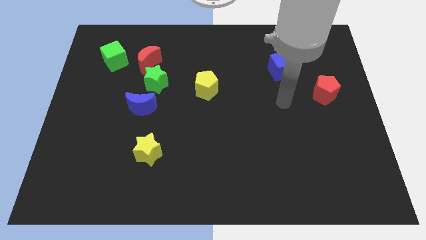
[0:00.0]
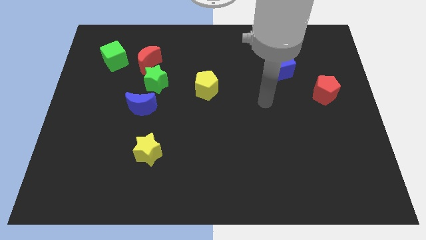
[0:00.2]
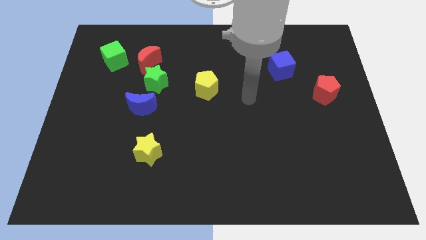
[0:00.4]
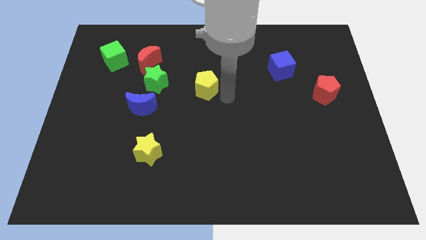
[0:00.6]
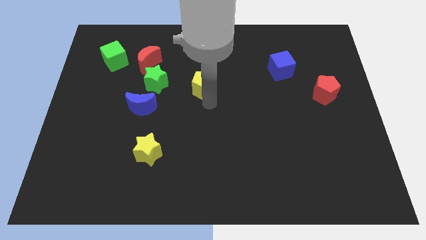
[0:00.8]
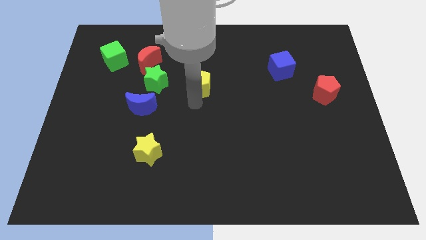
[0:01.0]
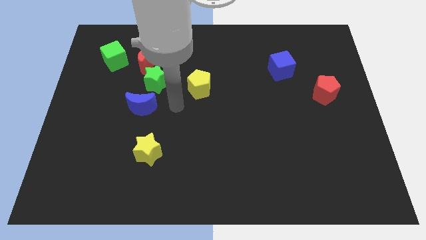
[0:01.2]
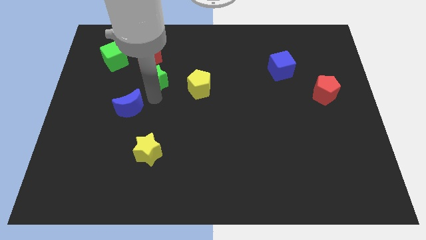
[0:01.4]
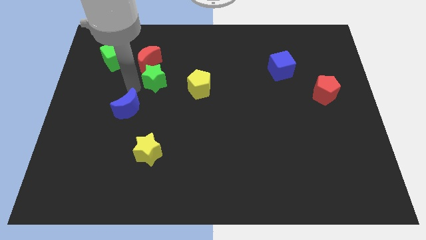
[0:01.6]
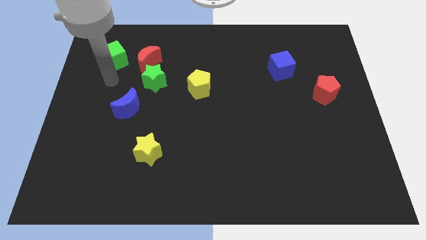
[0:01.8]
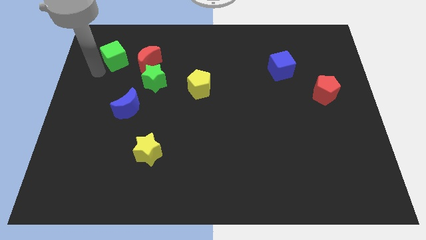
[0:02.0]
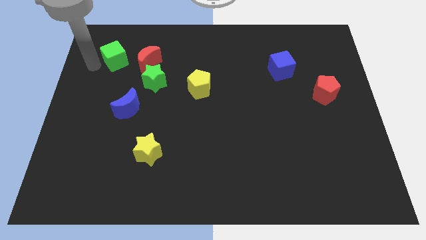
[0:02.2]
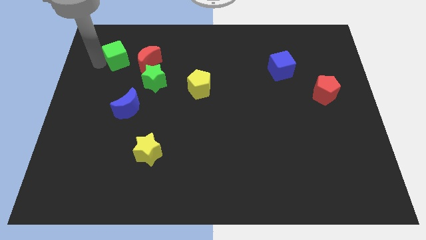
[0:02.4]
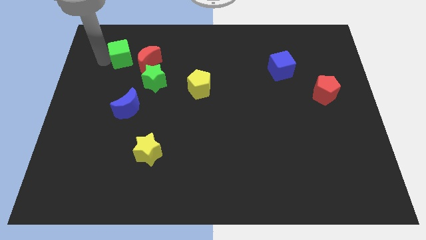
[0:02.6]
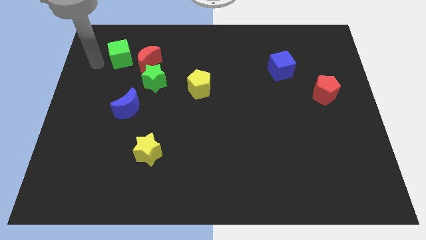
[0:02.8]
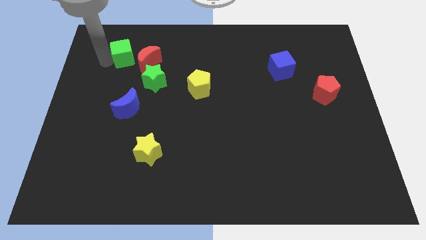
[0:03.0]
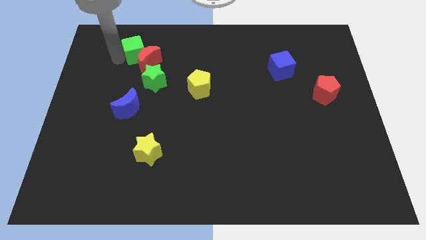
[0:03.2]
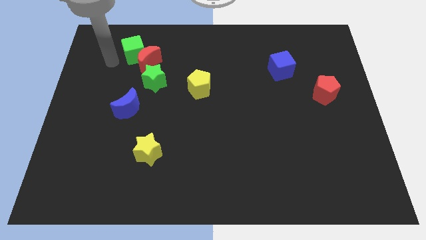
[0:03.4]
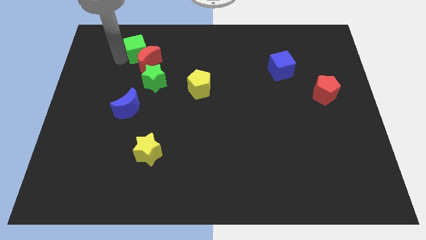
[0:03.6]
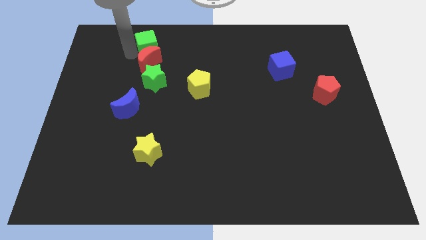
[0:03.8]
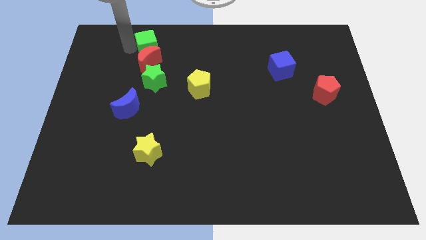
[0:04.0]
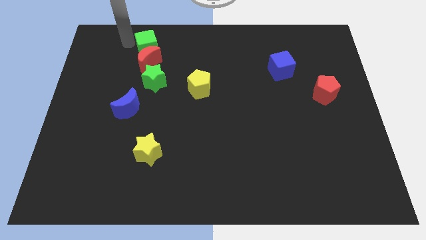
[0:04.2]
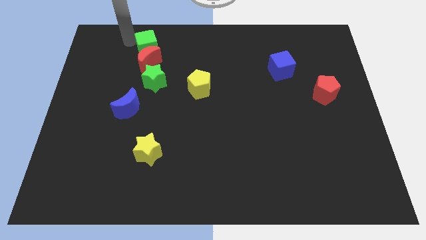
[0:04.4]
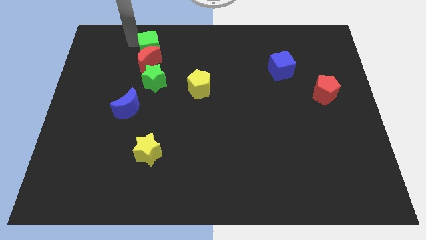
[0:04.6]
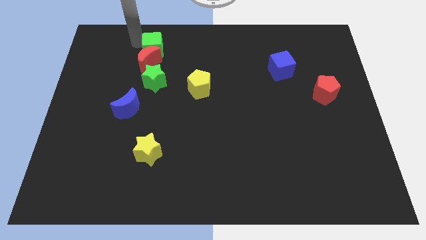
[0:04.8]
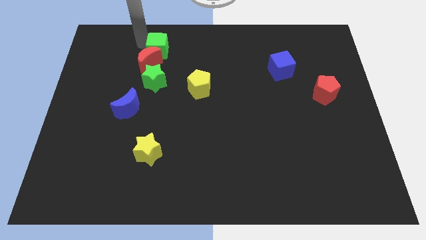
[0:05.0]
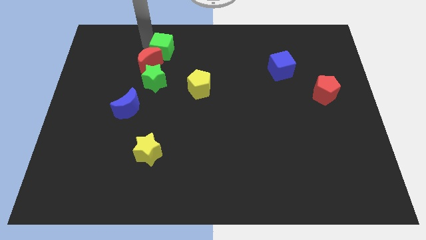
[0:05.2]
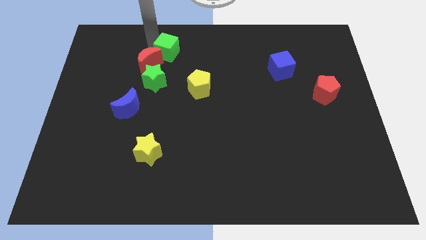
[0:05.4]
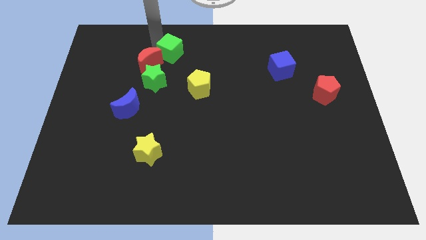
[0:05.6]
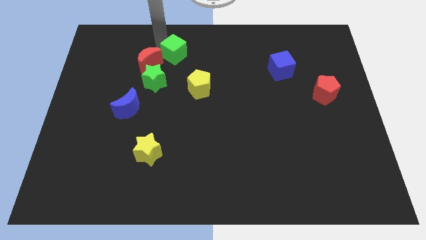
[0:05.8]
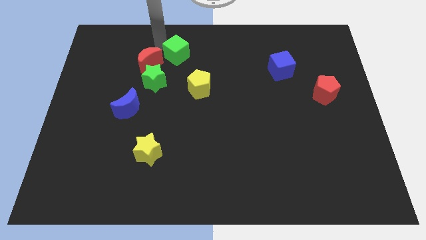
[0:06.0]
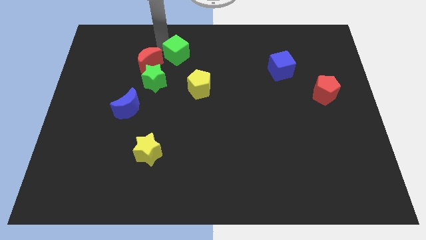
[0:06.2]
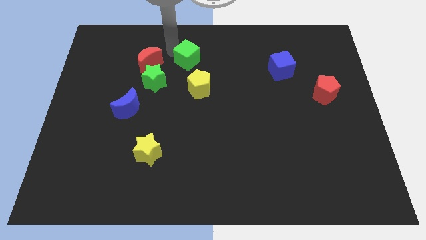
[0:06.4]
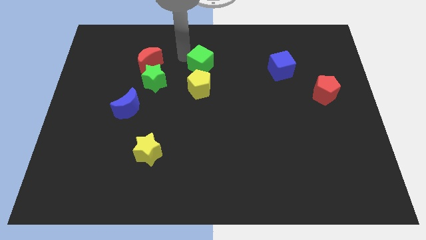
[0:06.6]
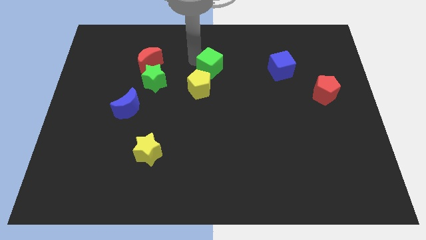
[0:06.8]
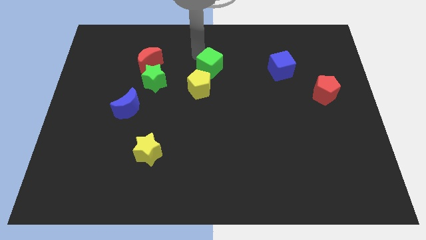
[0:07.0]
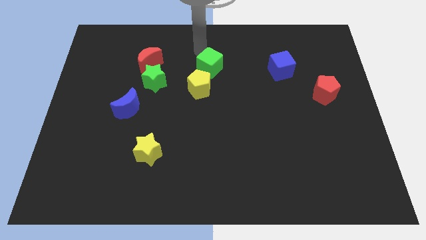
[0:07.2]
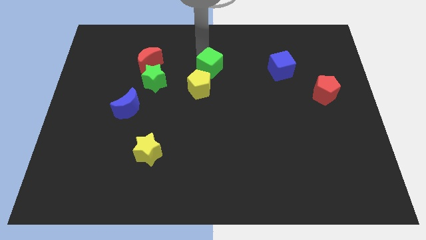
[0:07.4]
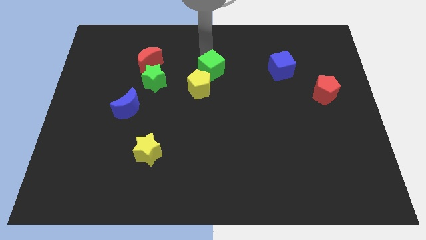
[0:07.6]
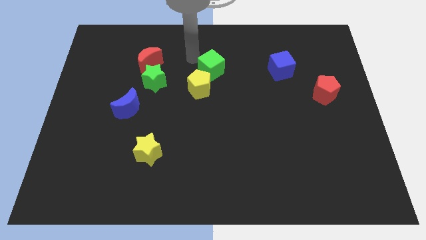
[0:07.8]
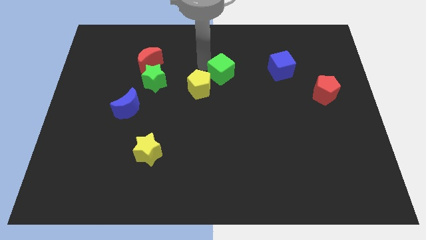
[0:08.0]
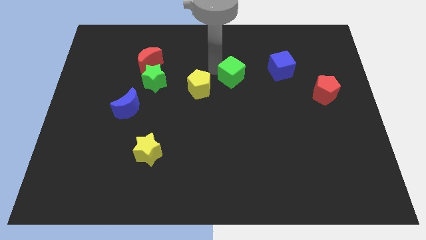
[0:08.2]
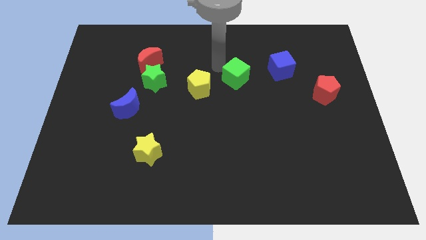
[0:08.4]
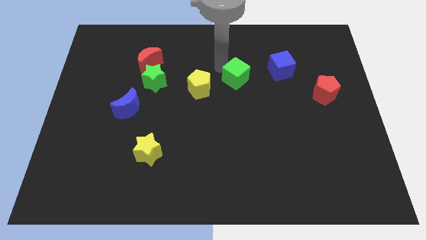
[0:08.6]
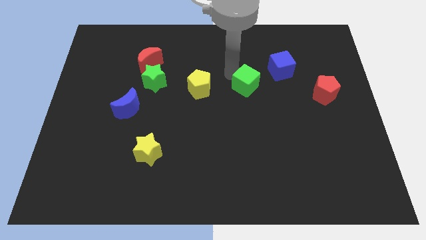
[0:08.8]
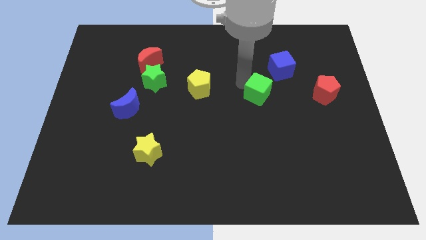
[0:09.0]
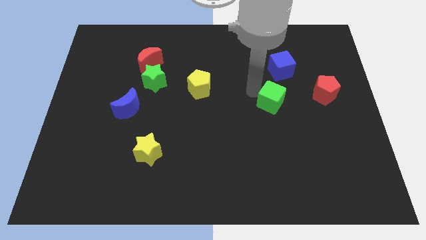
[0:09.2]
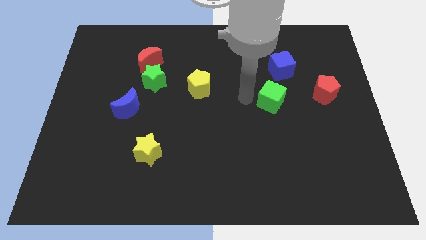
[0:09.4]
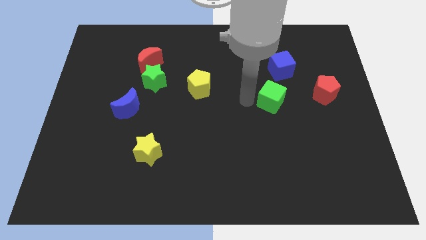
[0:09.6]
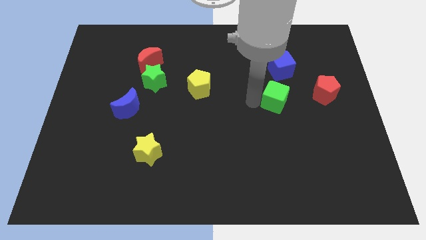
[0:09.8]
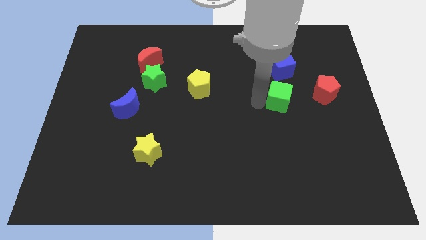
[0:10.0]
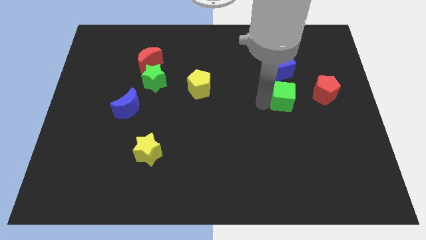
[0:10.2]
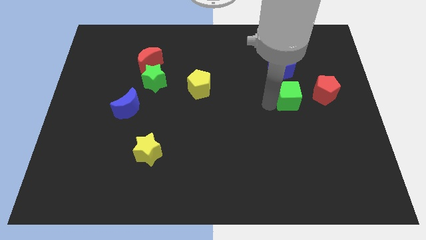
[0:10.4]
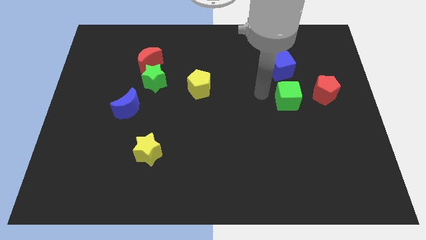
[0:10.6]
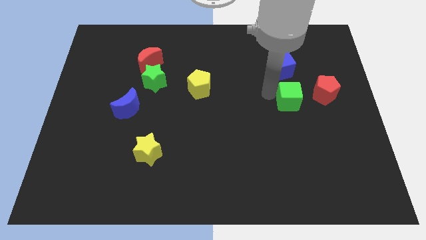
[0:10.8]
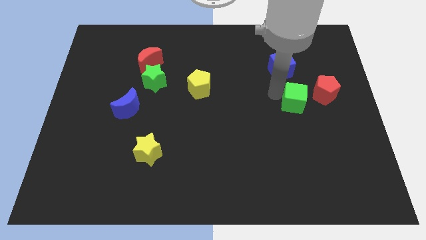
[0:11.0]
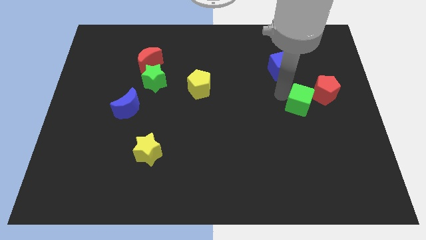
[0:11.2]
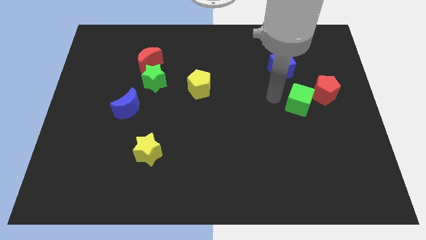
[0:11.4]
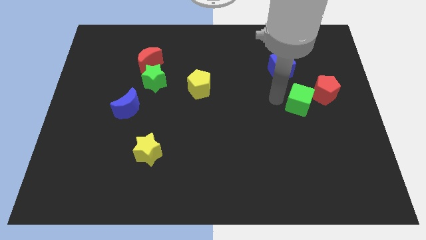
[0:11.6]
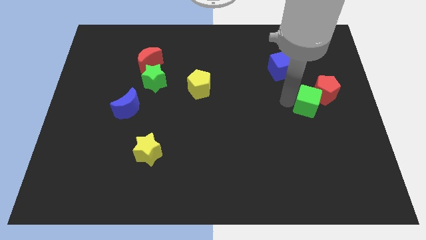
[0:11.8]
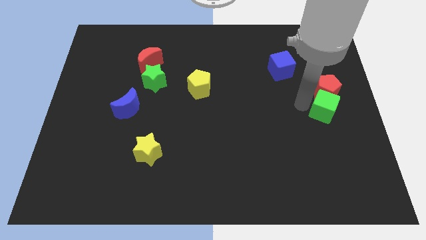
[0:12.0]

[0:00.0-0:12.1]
move the green cube to the right side
